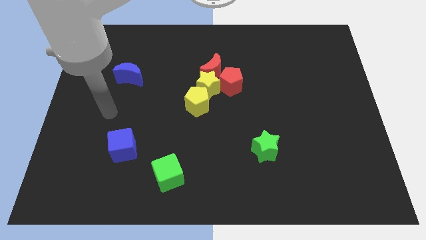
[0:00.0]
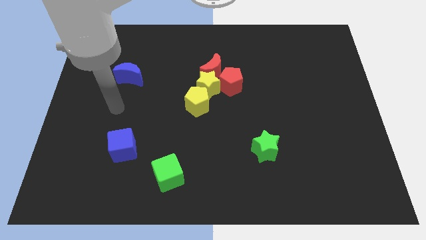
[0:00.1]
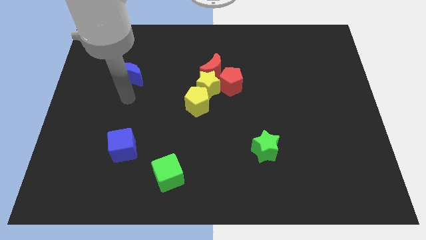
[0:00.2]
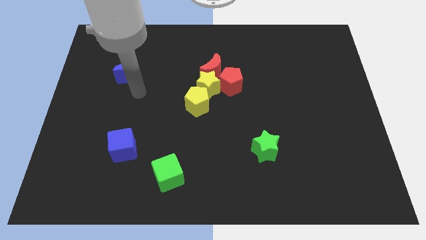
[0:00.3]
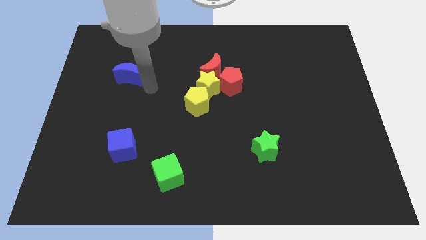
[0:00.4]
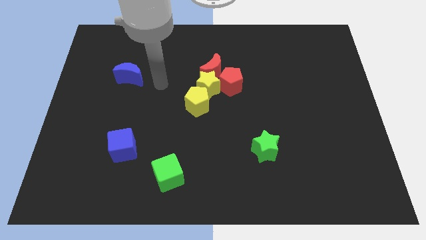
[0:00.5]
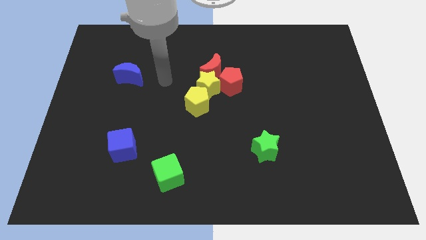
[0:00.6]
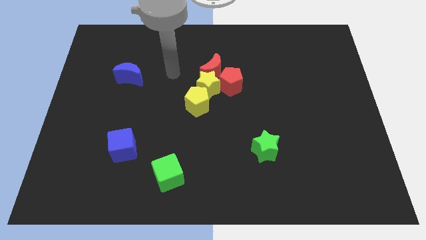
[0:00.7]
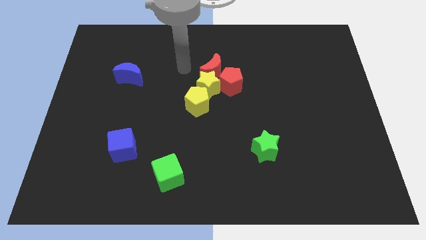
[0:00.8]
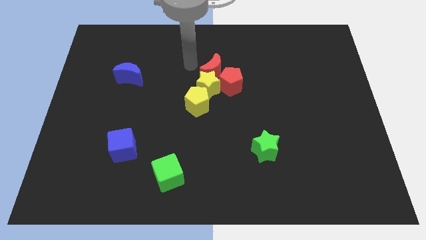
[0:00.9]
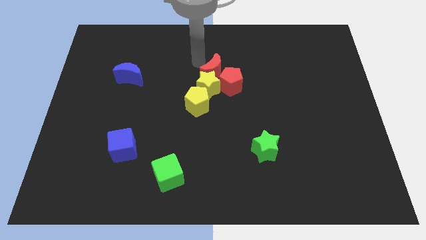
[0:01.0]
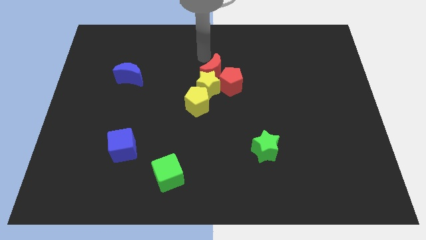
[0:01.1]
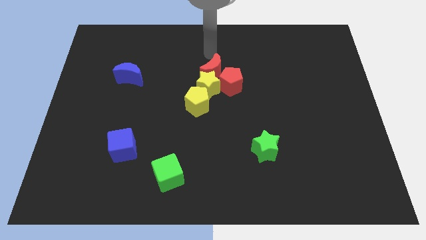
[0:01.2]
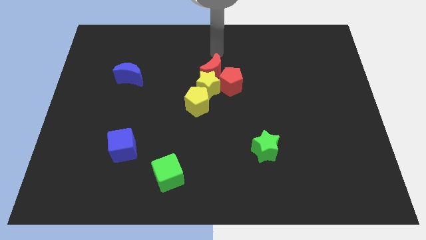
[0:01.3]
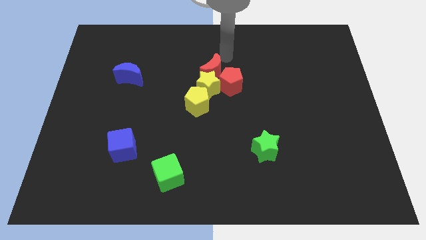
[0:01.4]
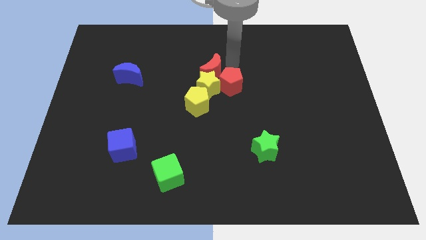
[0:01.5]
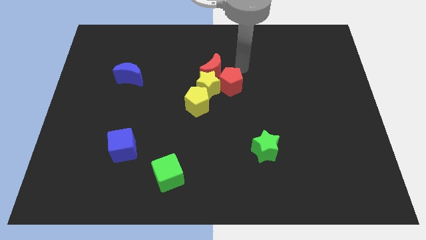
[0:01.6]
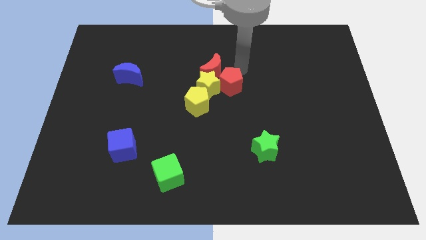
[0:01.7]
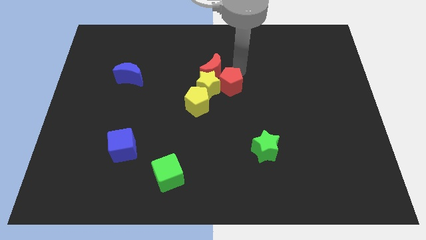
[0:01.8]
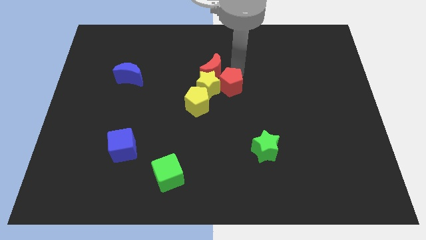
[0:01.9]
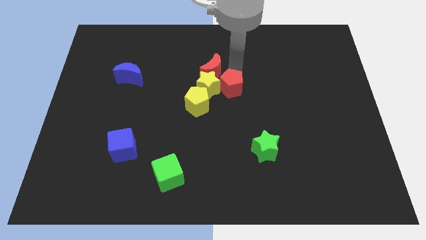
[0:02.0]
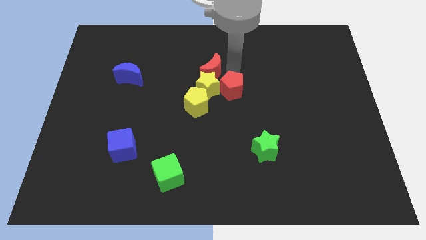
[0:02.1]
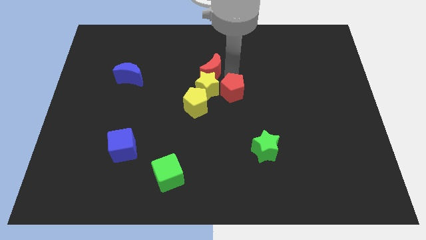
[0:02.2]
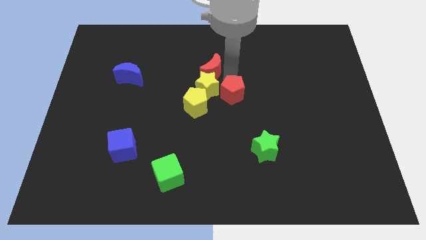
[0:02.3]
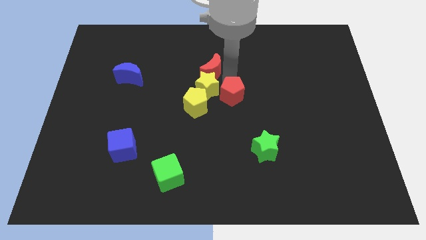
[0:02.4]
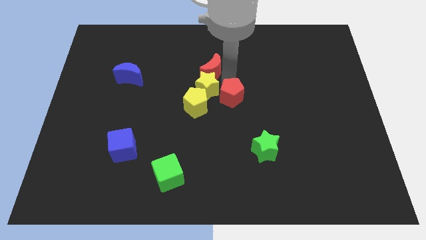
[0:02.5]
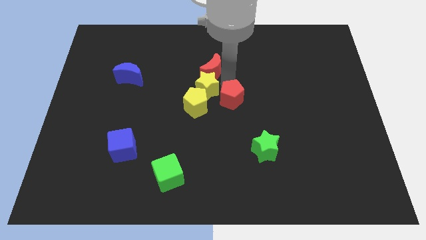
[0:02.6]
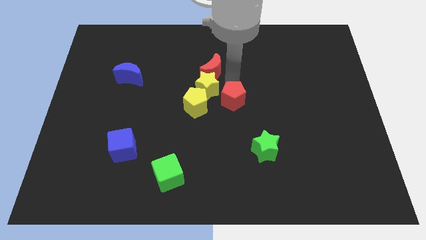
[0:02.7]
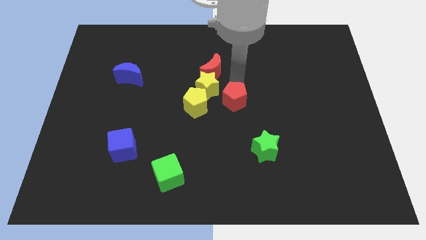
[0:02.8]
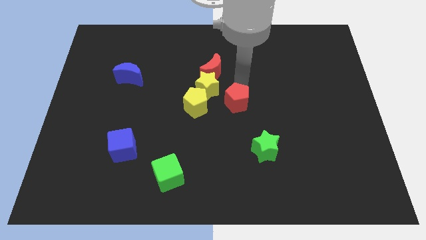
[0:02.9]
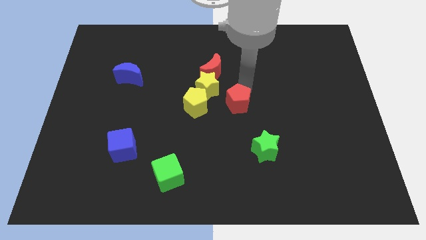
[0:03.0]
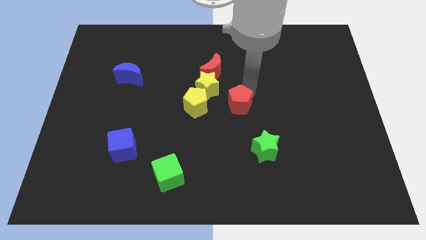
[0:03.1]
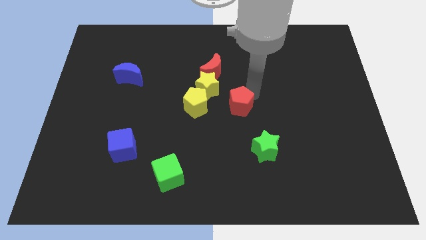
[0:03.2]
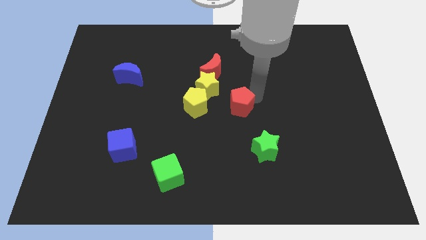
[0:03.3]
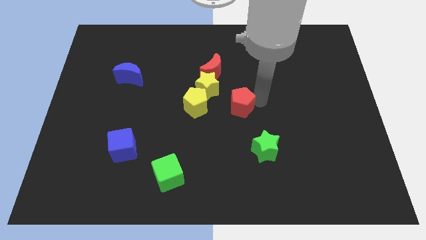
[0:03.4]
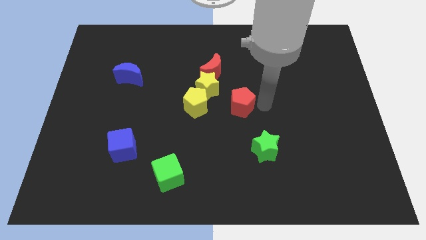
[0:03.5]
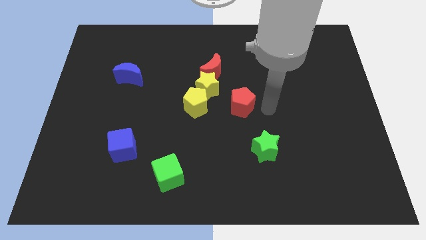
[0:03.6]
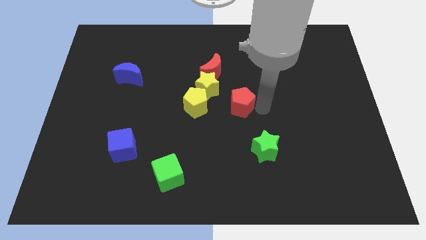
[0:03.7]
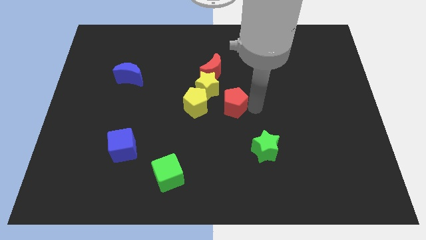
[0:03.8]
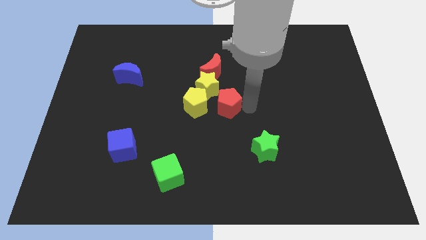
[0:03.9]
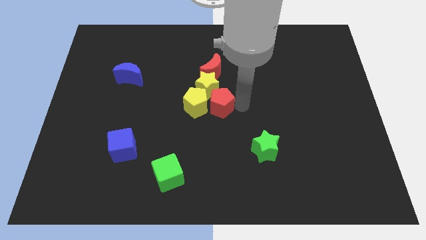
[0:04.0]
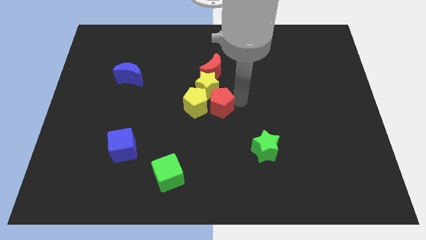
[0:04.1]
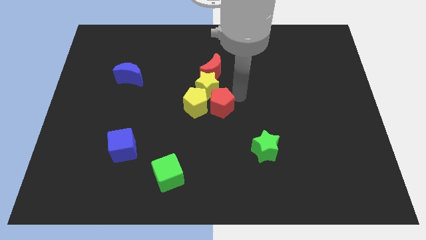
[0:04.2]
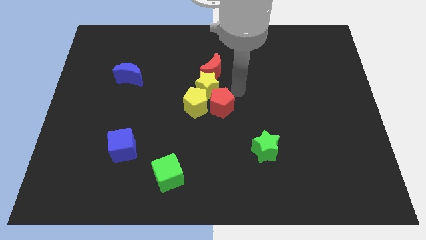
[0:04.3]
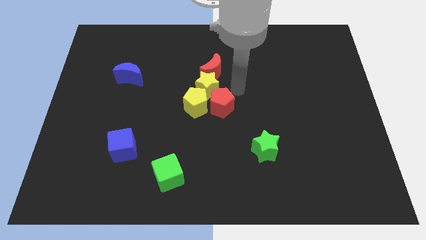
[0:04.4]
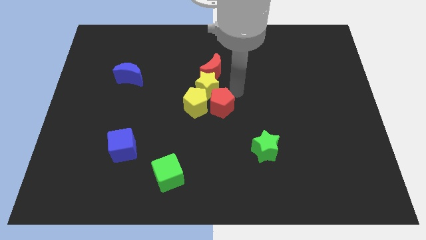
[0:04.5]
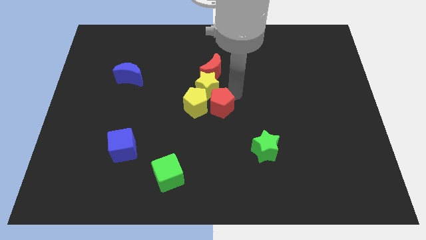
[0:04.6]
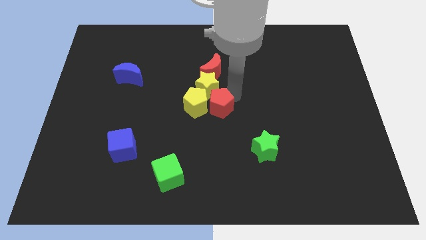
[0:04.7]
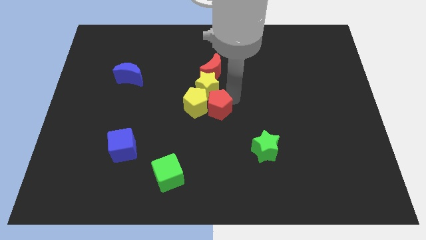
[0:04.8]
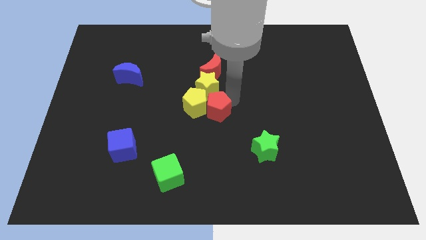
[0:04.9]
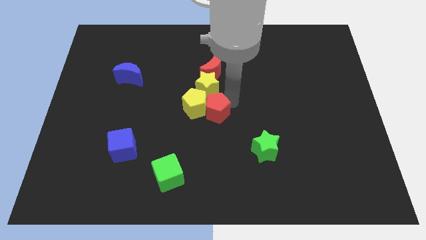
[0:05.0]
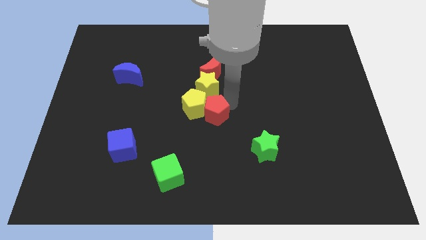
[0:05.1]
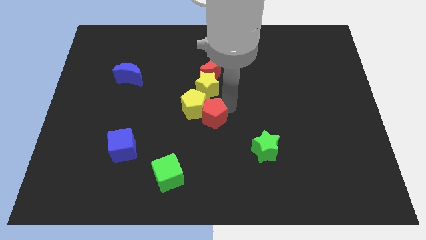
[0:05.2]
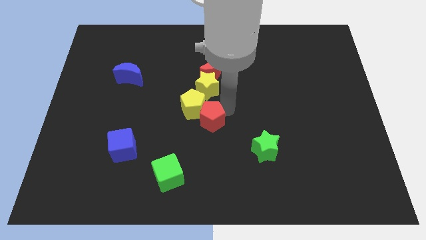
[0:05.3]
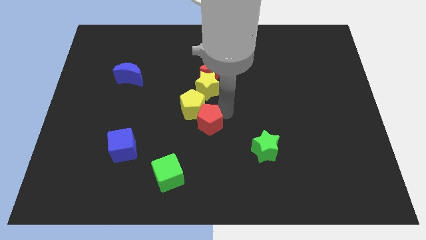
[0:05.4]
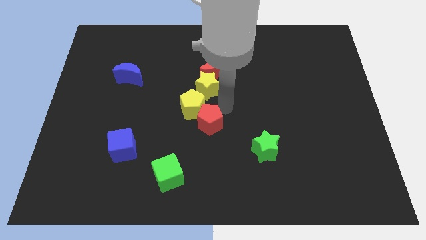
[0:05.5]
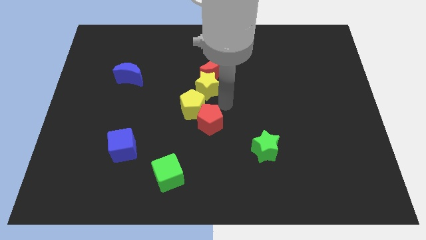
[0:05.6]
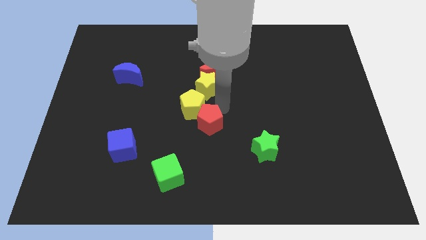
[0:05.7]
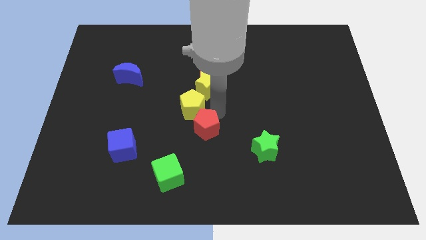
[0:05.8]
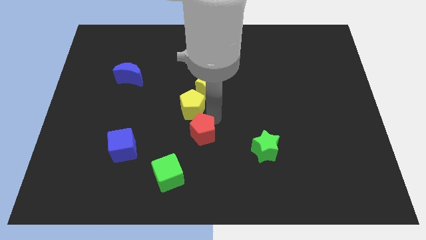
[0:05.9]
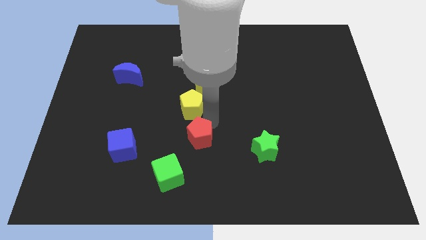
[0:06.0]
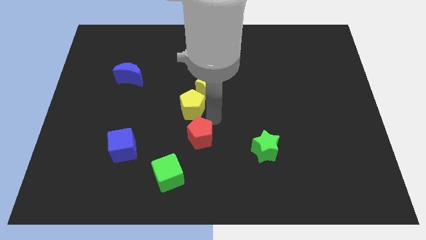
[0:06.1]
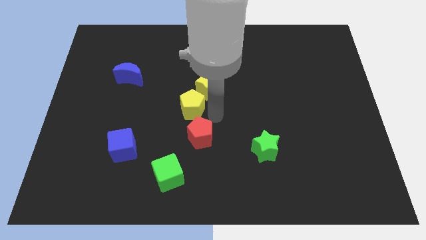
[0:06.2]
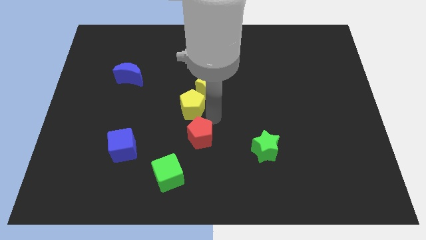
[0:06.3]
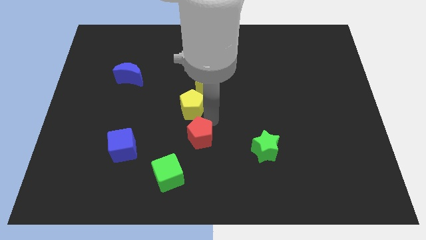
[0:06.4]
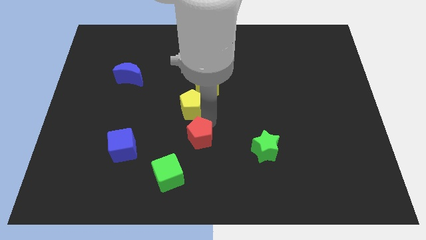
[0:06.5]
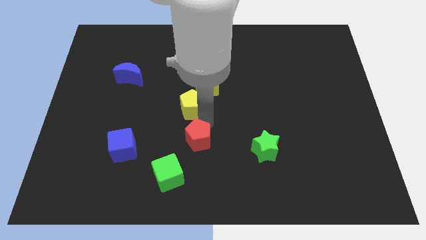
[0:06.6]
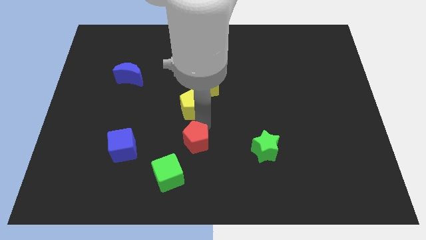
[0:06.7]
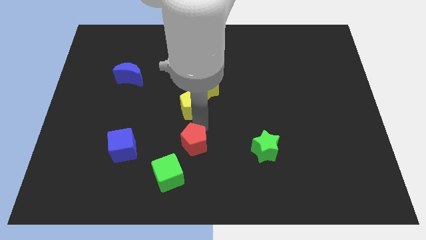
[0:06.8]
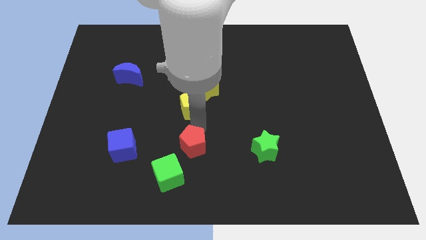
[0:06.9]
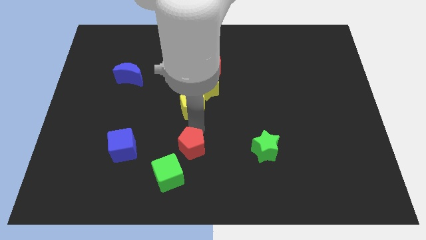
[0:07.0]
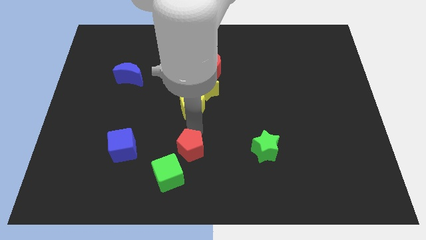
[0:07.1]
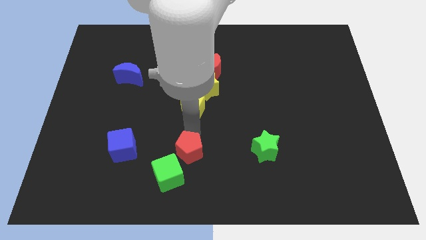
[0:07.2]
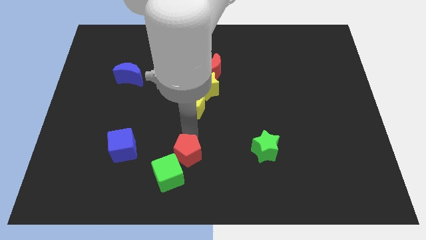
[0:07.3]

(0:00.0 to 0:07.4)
push the red pentagon close to the green cube
